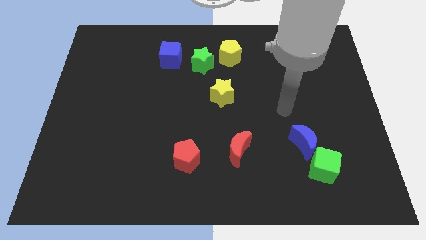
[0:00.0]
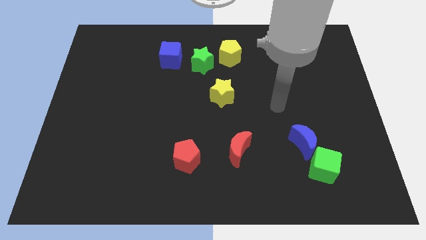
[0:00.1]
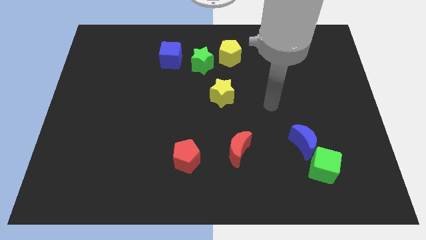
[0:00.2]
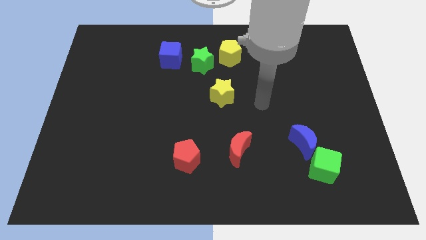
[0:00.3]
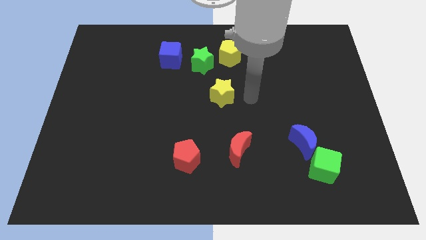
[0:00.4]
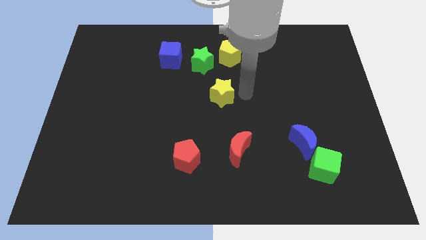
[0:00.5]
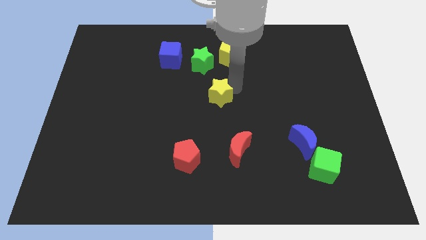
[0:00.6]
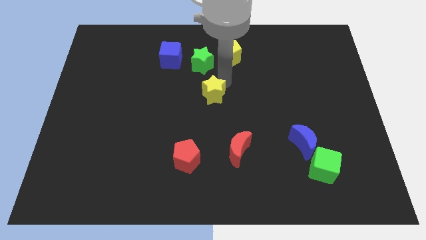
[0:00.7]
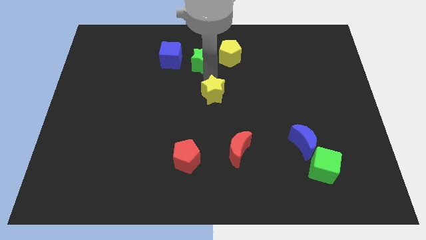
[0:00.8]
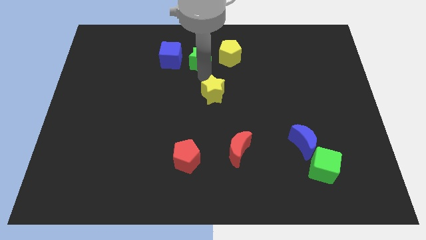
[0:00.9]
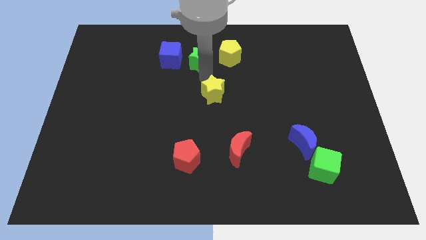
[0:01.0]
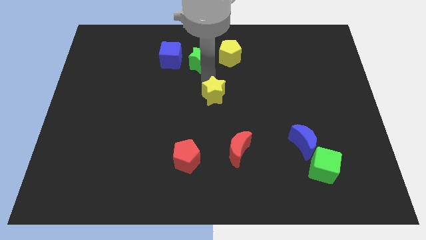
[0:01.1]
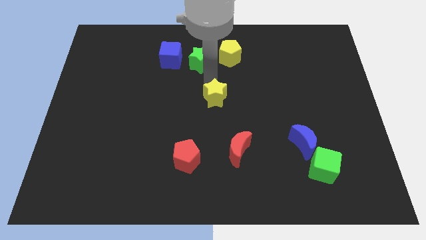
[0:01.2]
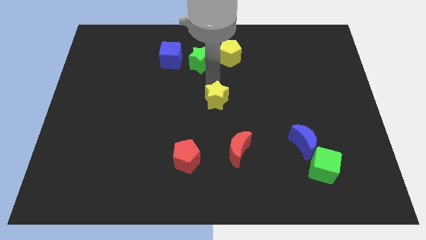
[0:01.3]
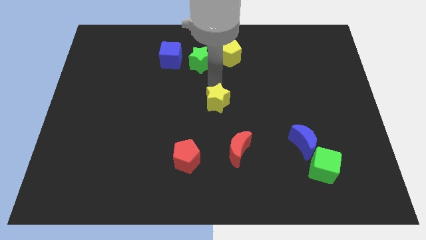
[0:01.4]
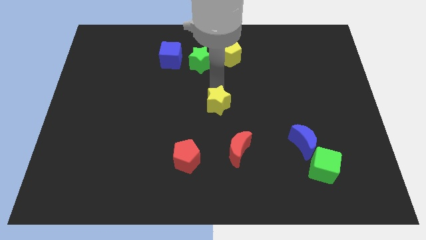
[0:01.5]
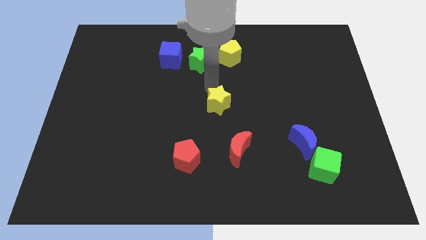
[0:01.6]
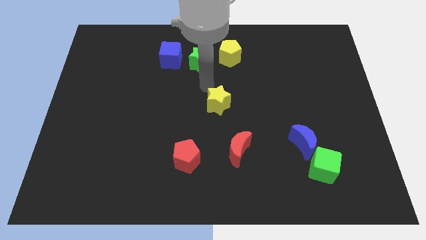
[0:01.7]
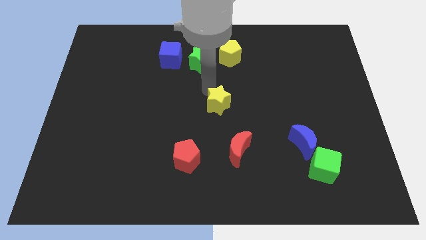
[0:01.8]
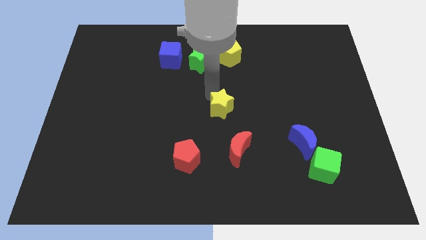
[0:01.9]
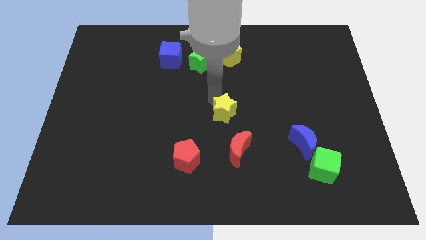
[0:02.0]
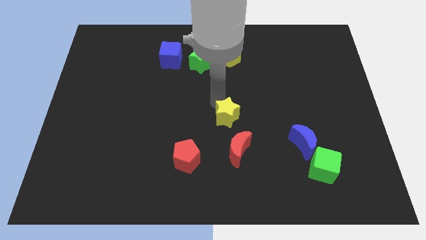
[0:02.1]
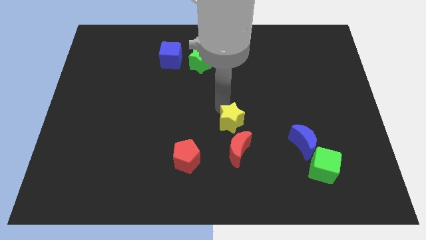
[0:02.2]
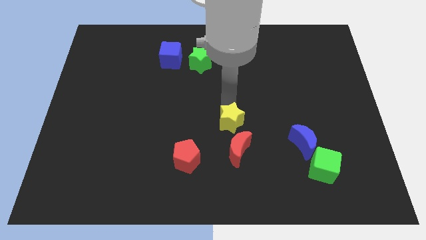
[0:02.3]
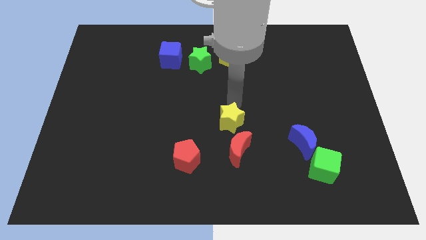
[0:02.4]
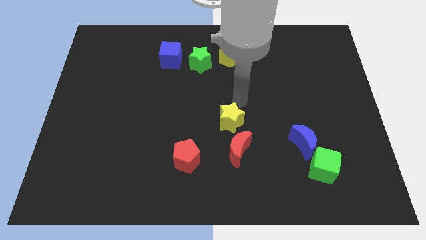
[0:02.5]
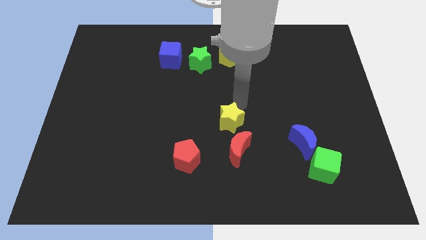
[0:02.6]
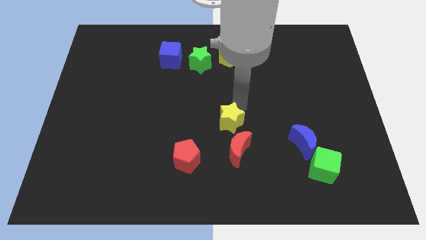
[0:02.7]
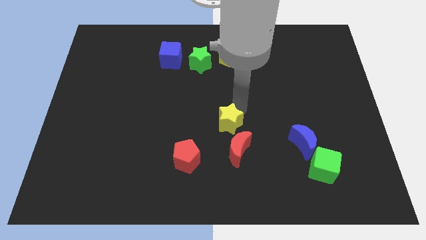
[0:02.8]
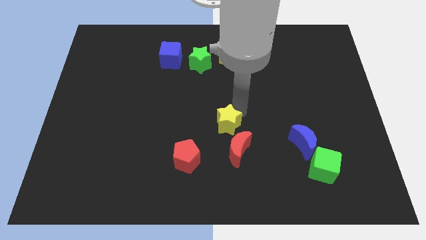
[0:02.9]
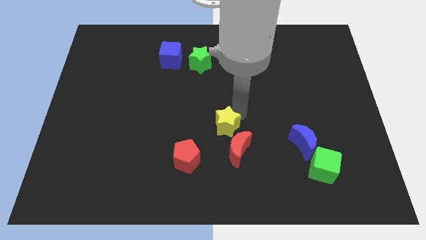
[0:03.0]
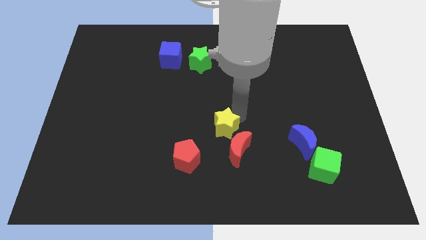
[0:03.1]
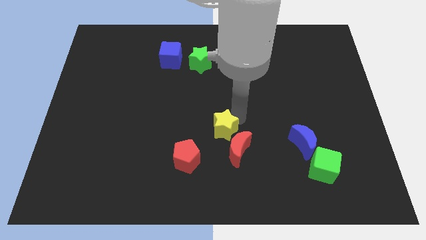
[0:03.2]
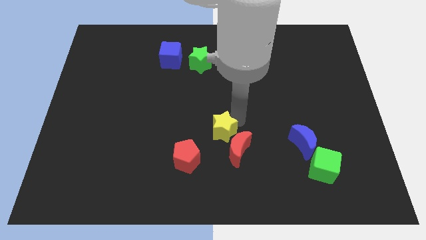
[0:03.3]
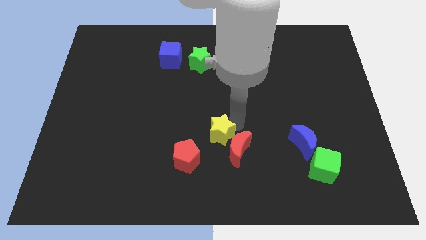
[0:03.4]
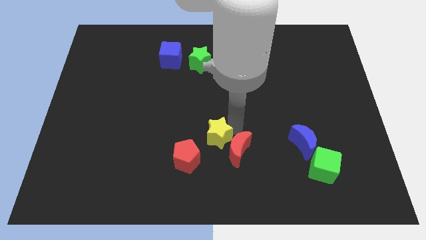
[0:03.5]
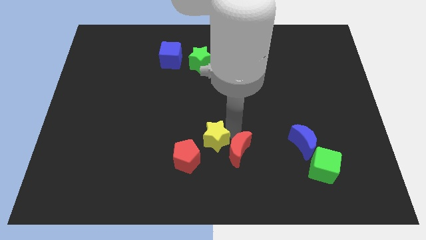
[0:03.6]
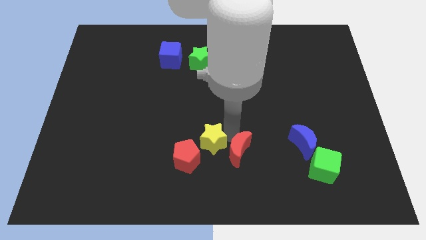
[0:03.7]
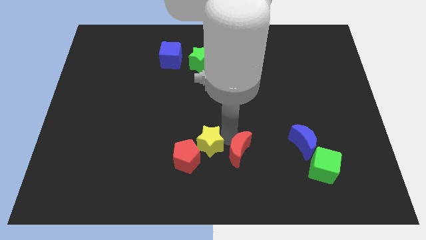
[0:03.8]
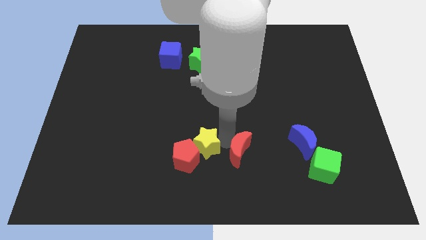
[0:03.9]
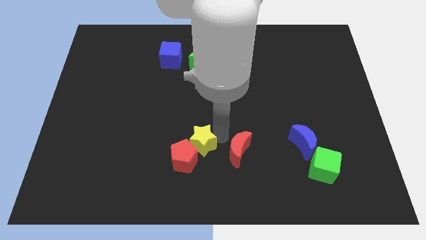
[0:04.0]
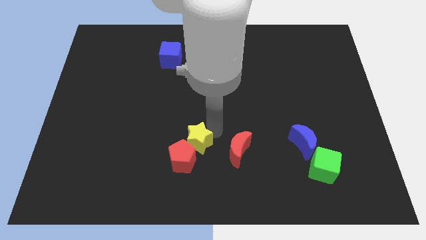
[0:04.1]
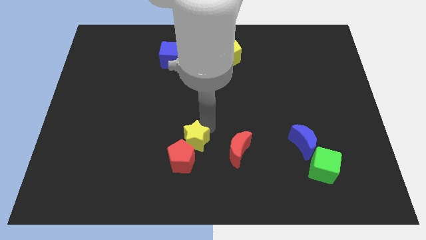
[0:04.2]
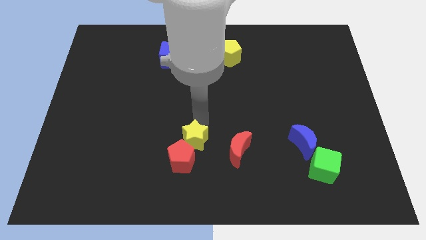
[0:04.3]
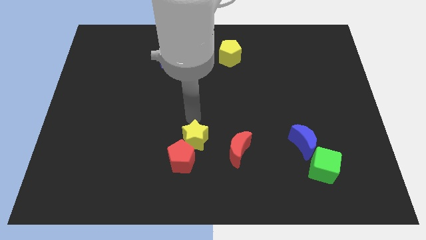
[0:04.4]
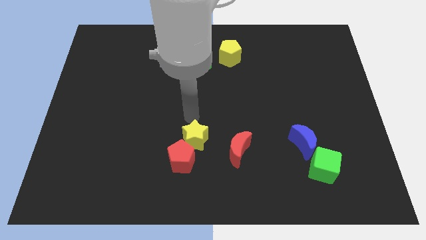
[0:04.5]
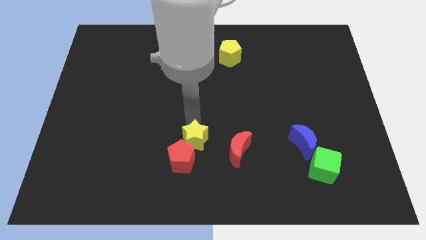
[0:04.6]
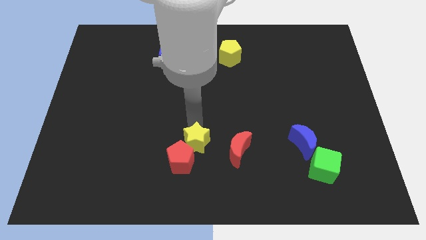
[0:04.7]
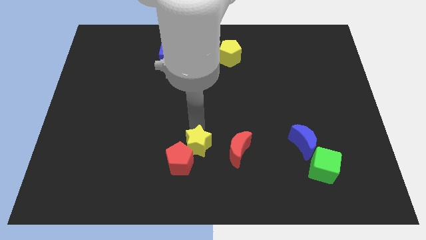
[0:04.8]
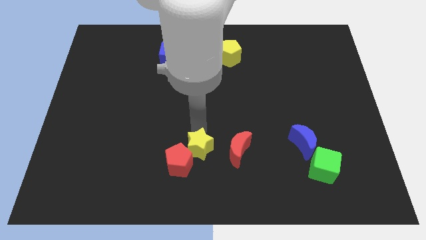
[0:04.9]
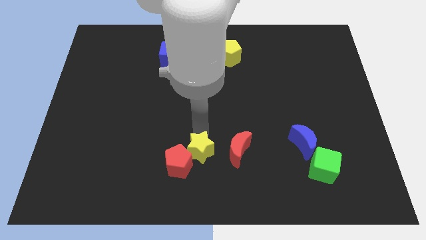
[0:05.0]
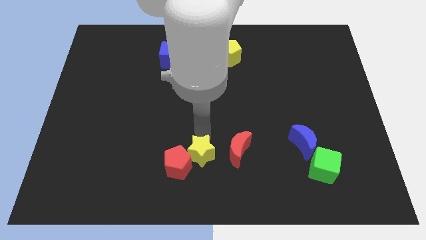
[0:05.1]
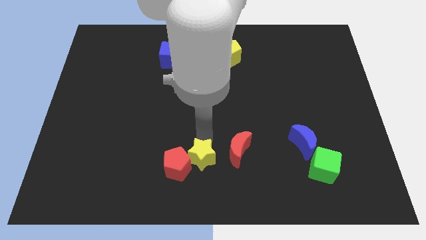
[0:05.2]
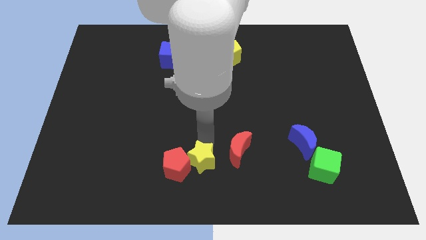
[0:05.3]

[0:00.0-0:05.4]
put the yellow star to the bottom right of the red pentagon

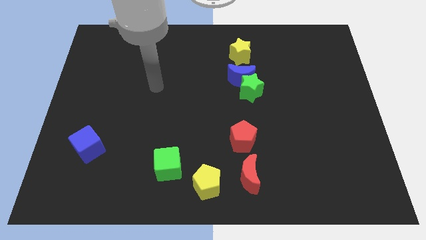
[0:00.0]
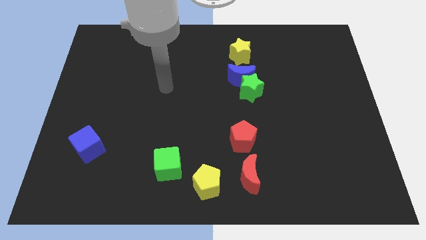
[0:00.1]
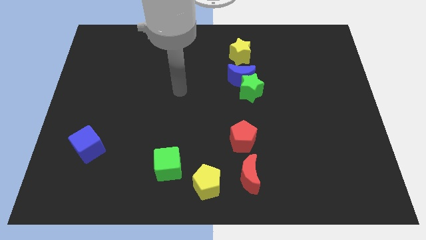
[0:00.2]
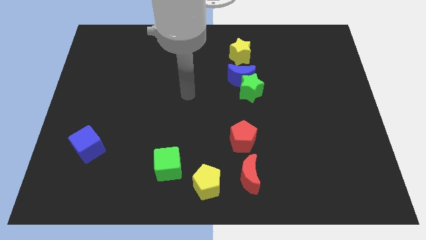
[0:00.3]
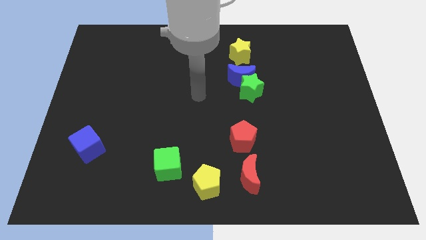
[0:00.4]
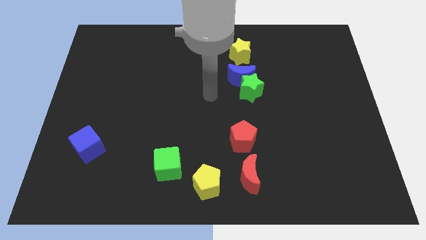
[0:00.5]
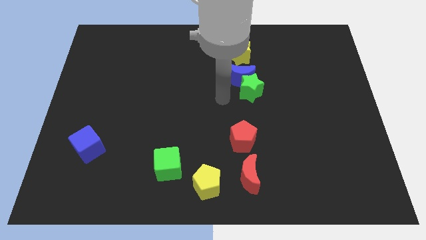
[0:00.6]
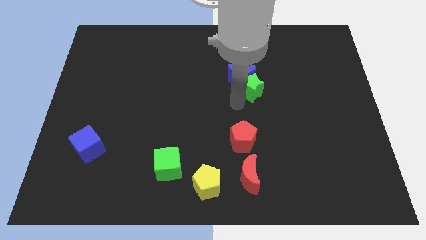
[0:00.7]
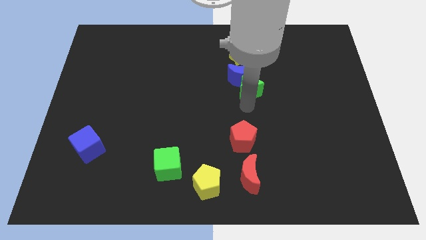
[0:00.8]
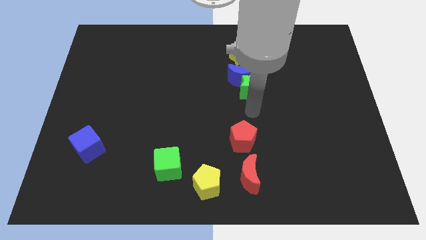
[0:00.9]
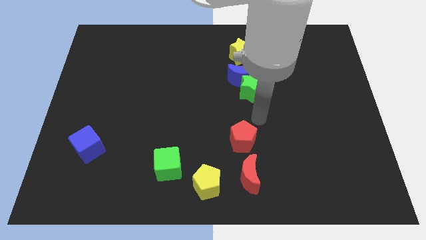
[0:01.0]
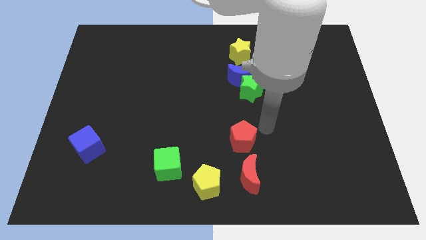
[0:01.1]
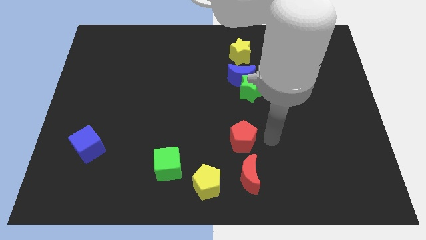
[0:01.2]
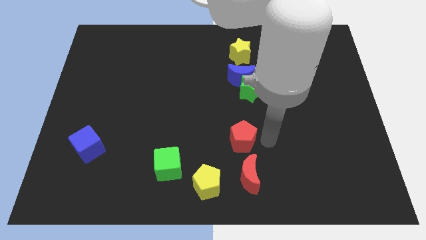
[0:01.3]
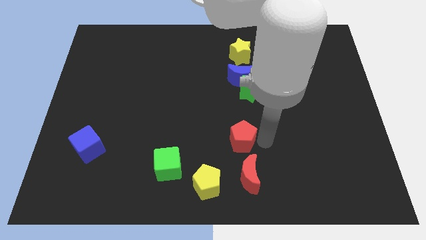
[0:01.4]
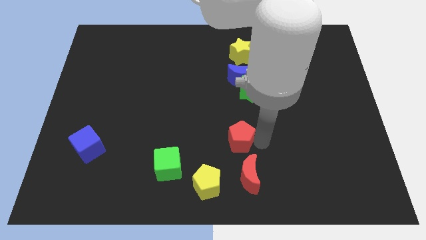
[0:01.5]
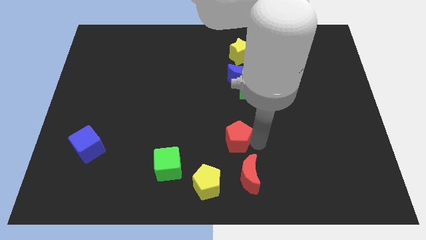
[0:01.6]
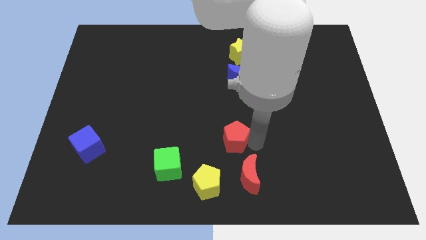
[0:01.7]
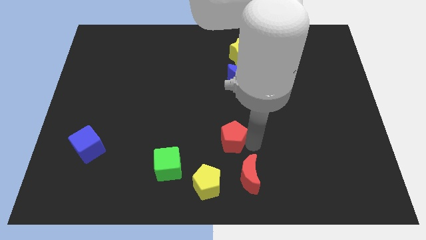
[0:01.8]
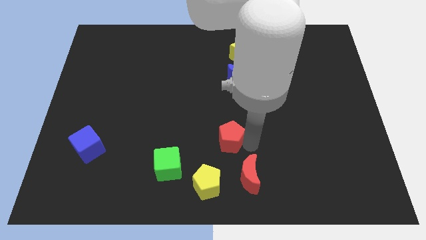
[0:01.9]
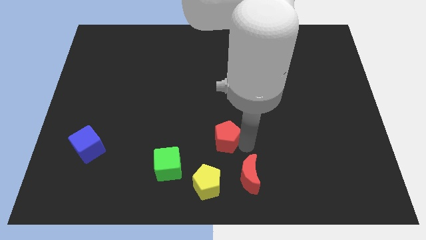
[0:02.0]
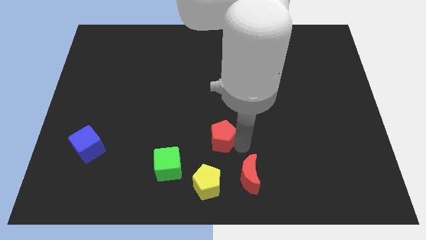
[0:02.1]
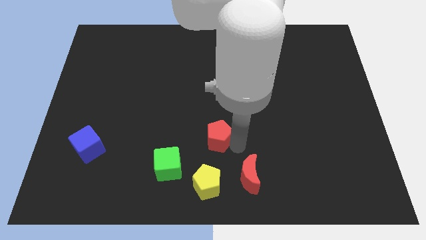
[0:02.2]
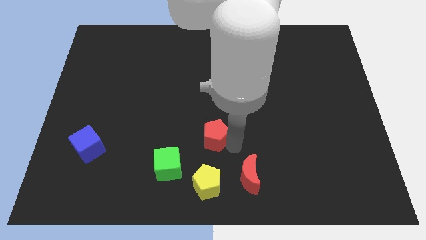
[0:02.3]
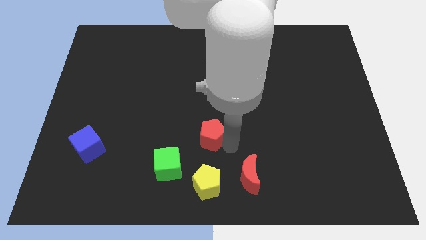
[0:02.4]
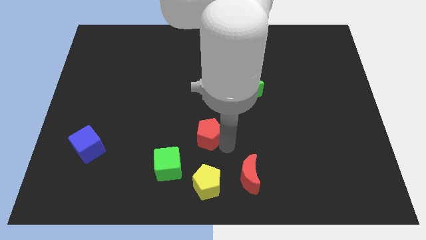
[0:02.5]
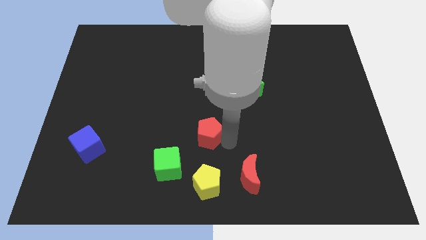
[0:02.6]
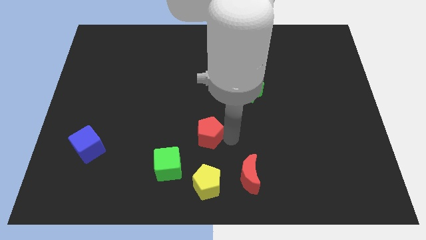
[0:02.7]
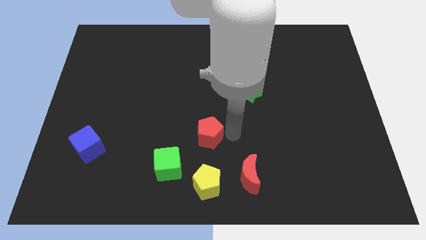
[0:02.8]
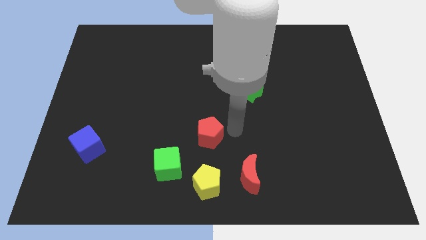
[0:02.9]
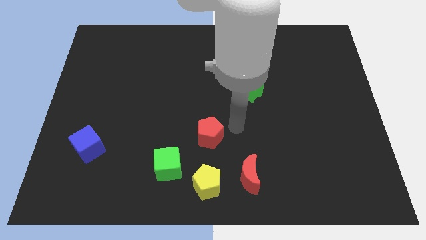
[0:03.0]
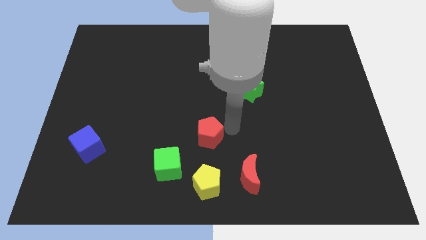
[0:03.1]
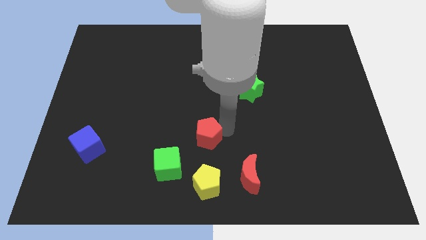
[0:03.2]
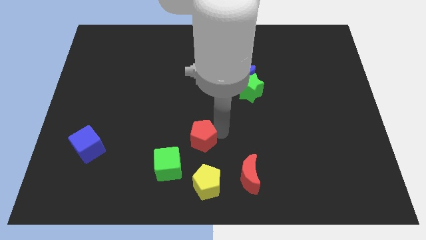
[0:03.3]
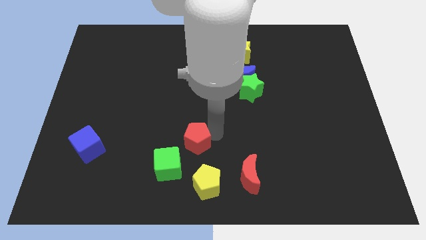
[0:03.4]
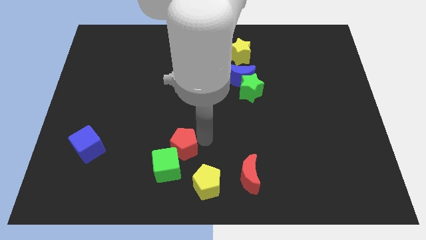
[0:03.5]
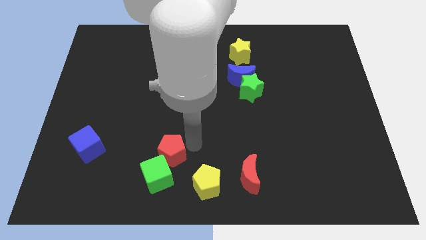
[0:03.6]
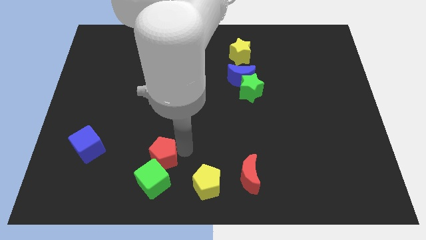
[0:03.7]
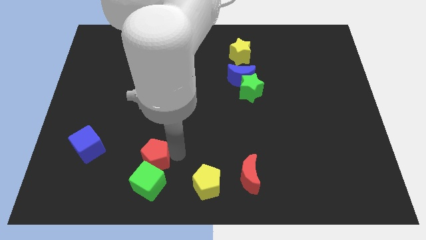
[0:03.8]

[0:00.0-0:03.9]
move the red pentagon to the right side of the blue cube
